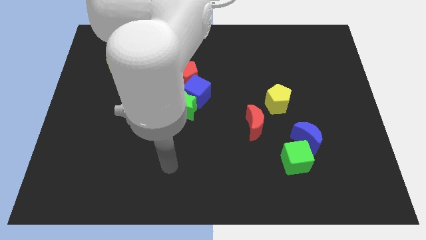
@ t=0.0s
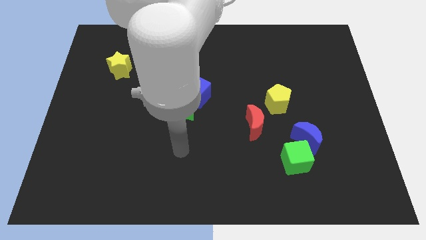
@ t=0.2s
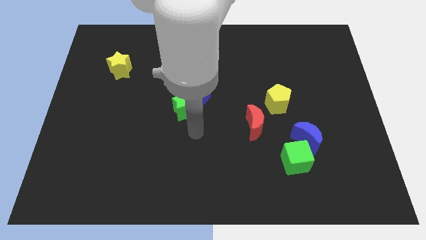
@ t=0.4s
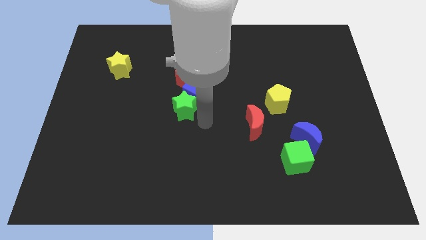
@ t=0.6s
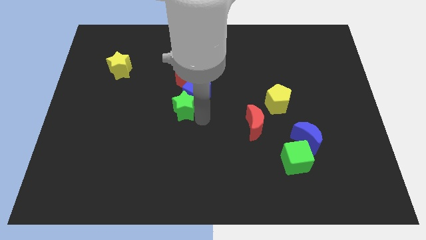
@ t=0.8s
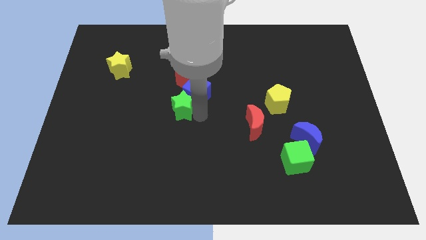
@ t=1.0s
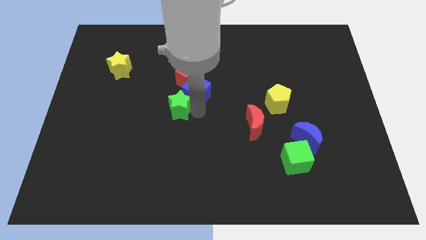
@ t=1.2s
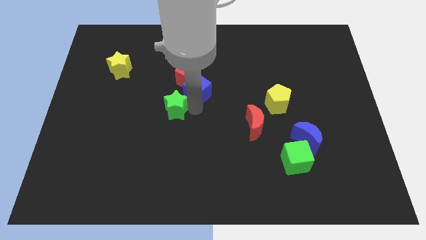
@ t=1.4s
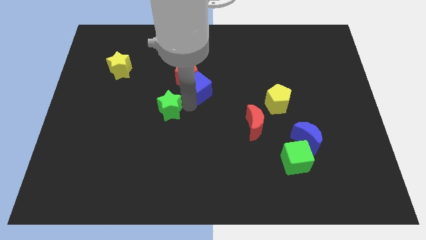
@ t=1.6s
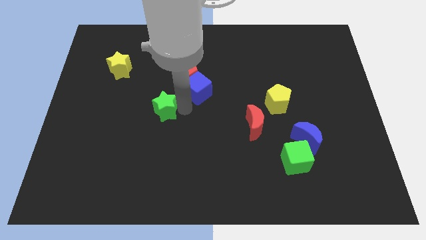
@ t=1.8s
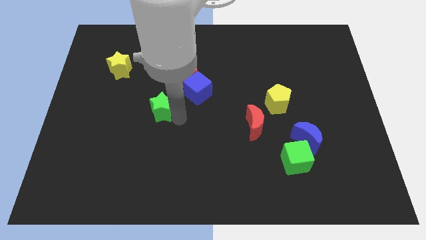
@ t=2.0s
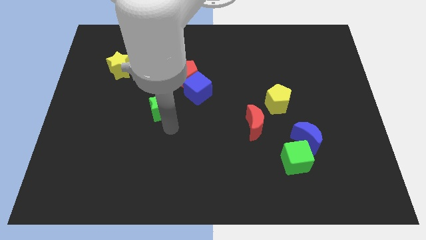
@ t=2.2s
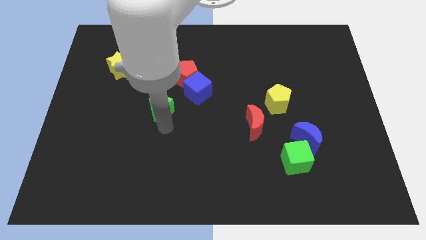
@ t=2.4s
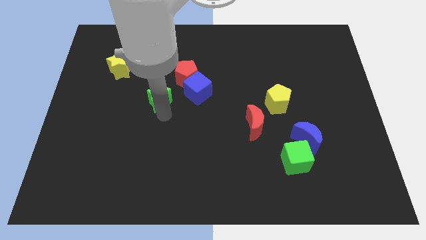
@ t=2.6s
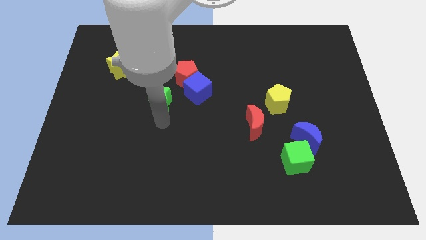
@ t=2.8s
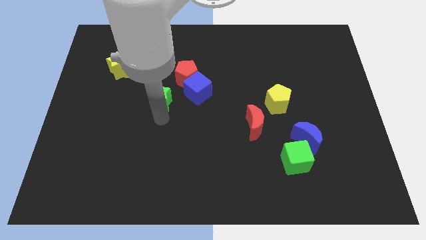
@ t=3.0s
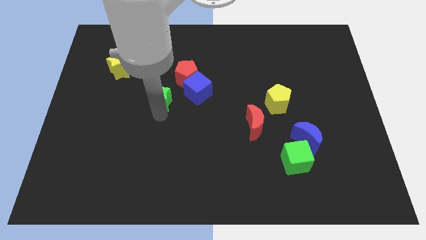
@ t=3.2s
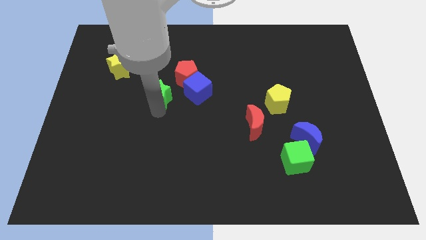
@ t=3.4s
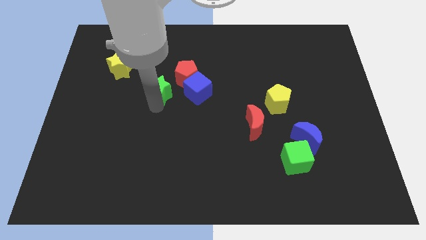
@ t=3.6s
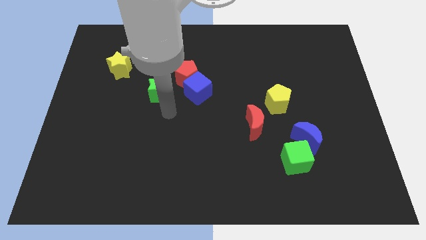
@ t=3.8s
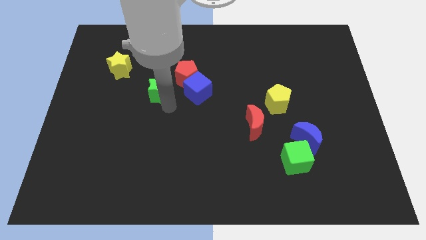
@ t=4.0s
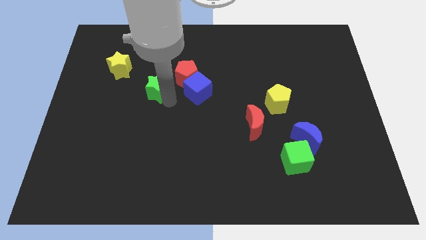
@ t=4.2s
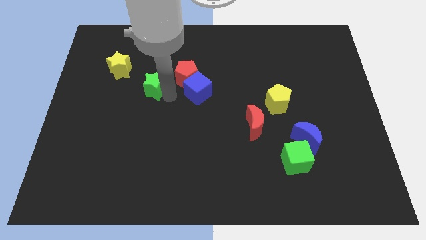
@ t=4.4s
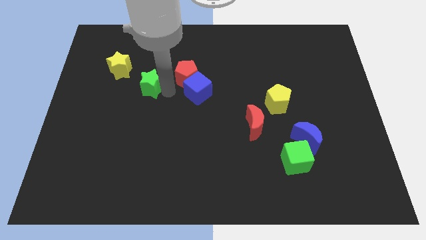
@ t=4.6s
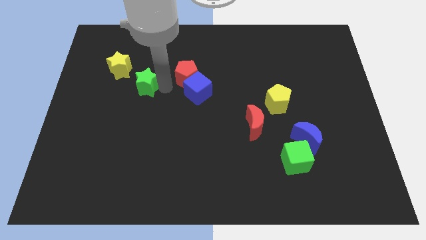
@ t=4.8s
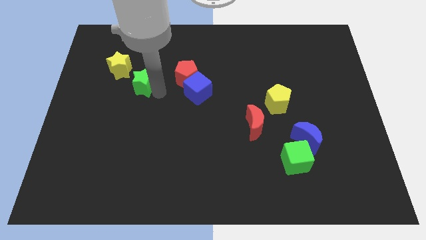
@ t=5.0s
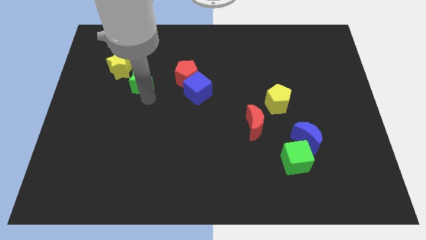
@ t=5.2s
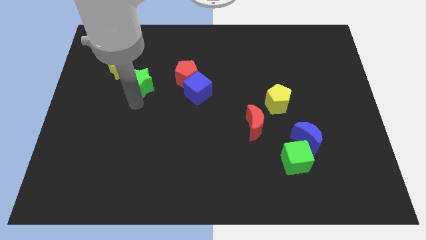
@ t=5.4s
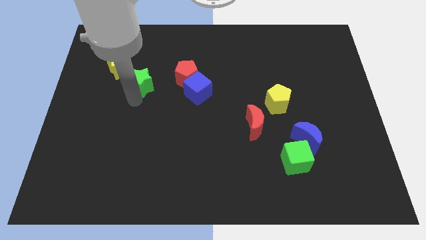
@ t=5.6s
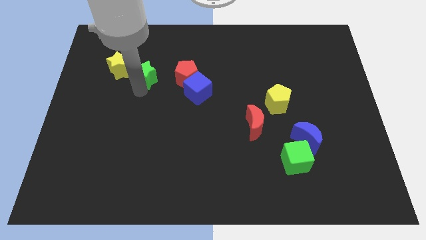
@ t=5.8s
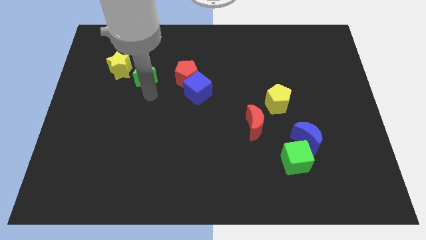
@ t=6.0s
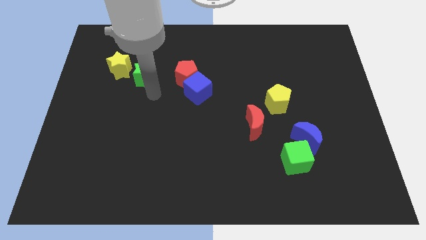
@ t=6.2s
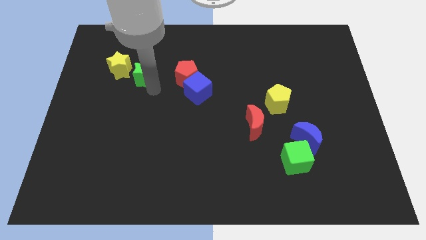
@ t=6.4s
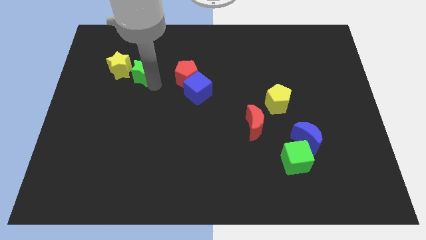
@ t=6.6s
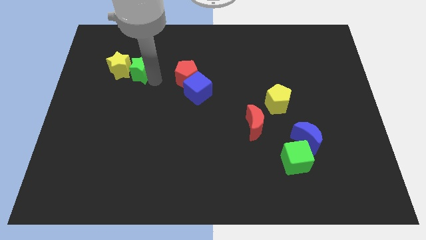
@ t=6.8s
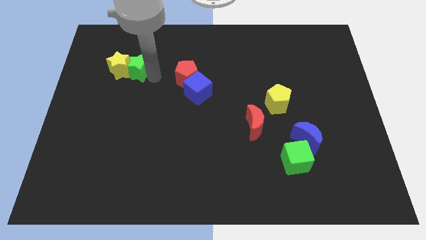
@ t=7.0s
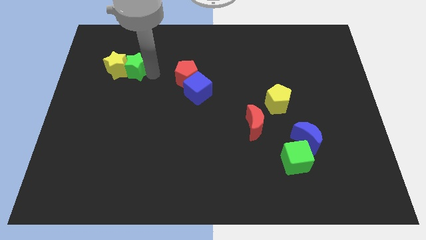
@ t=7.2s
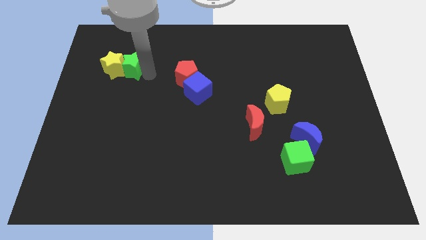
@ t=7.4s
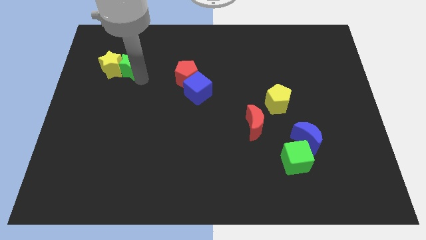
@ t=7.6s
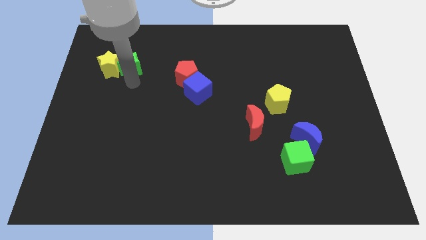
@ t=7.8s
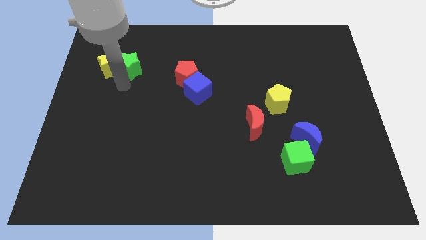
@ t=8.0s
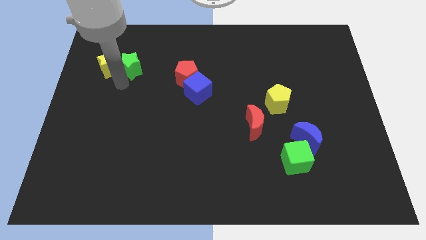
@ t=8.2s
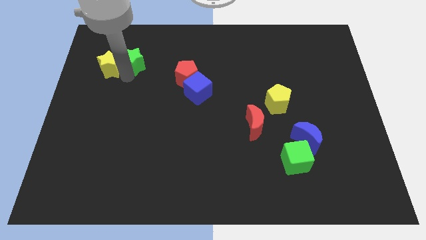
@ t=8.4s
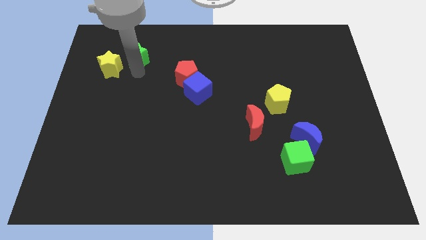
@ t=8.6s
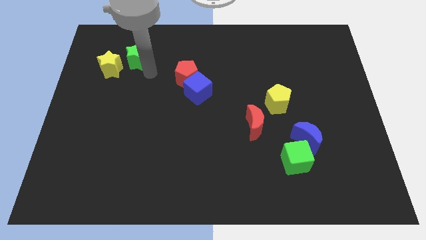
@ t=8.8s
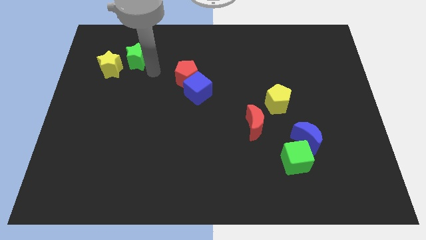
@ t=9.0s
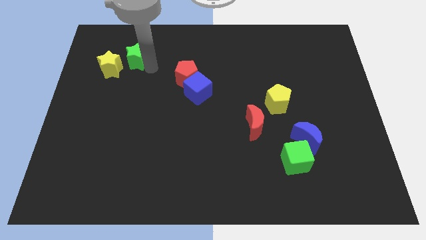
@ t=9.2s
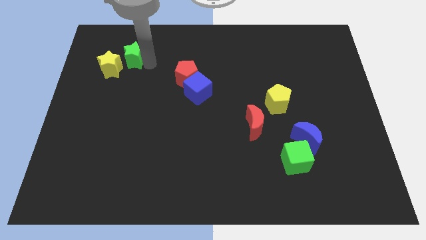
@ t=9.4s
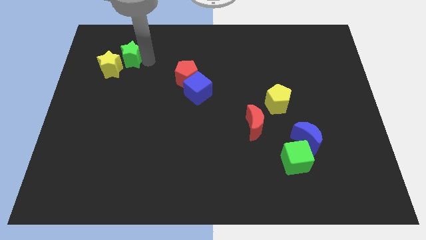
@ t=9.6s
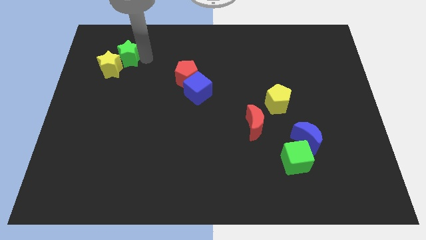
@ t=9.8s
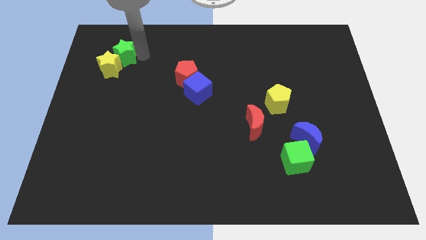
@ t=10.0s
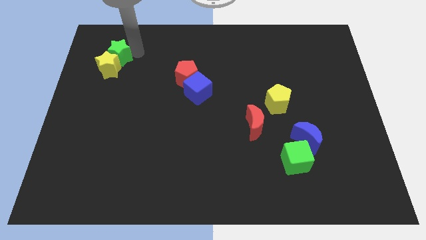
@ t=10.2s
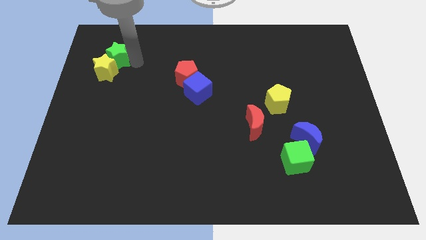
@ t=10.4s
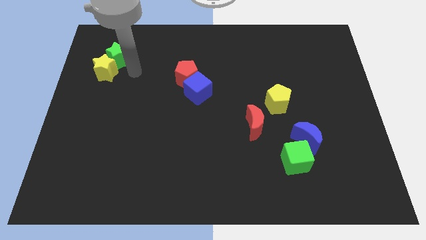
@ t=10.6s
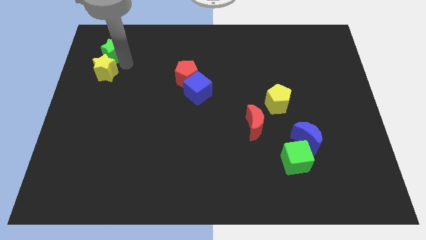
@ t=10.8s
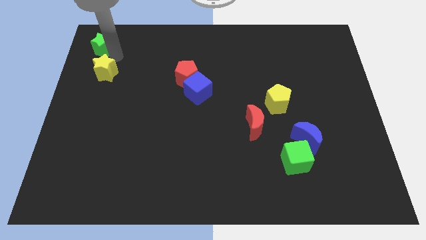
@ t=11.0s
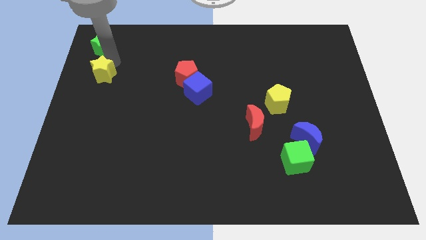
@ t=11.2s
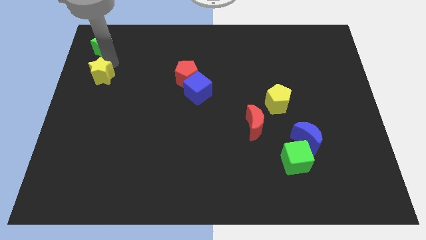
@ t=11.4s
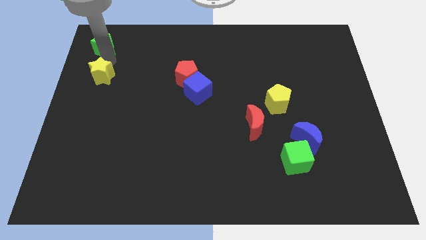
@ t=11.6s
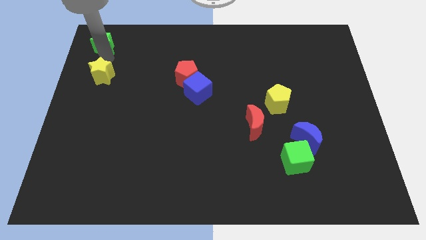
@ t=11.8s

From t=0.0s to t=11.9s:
move the green star to the top left
